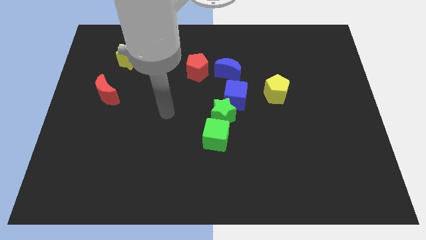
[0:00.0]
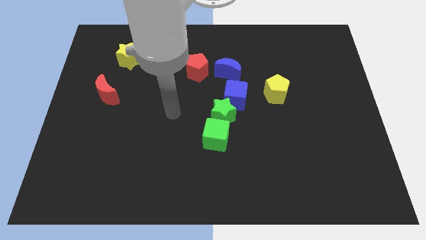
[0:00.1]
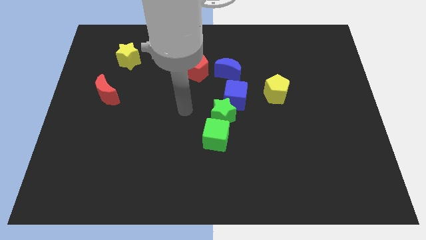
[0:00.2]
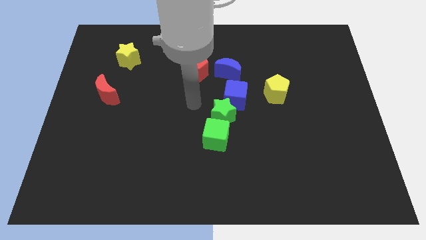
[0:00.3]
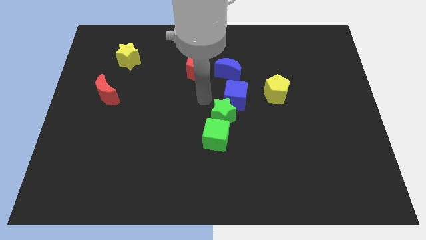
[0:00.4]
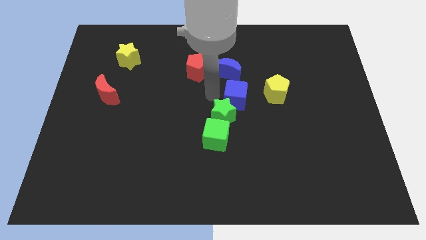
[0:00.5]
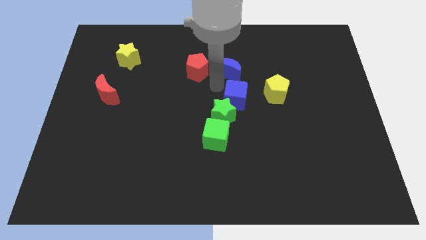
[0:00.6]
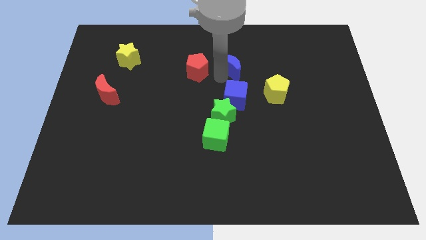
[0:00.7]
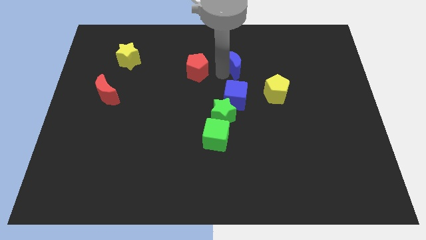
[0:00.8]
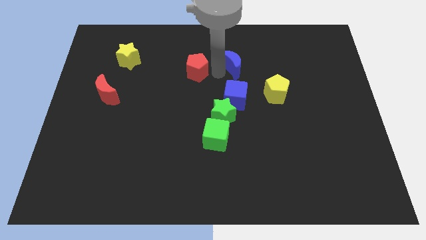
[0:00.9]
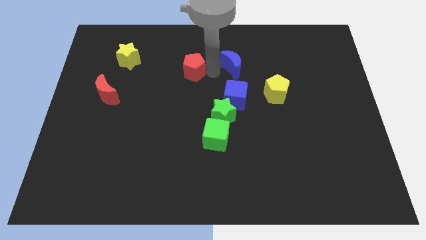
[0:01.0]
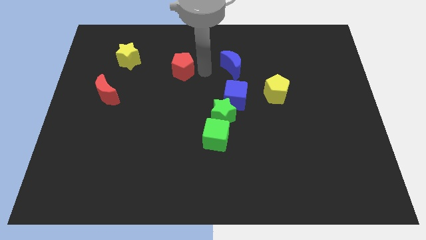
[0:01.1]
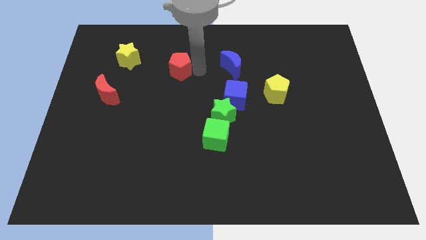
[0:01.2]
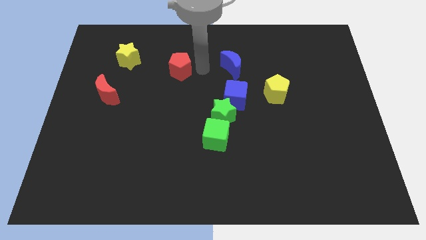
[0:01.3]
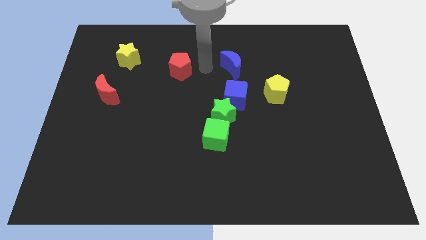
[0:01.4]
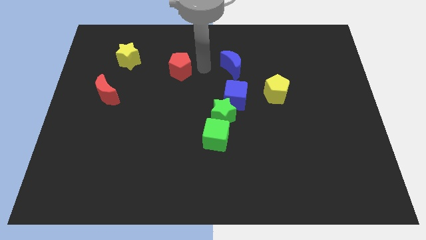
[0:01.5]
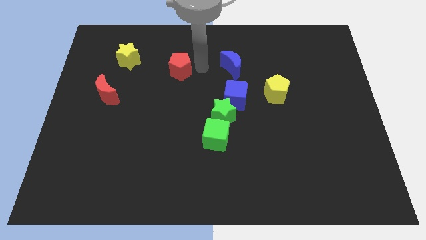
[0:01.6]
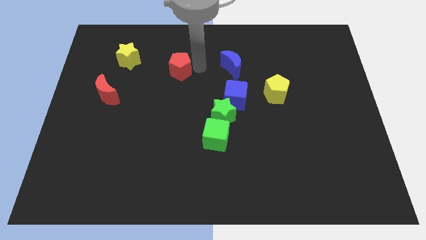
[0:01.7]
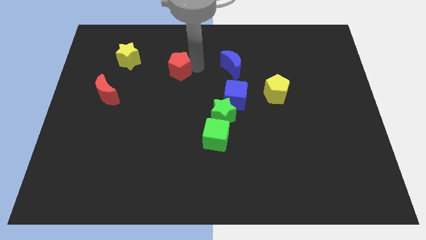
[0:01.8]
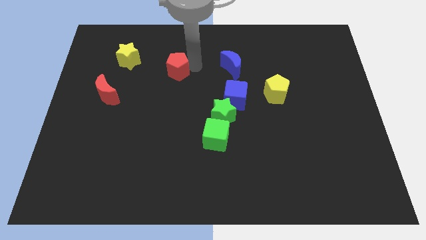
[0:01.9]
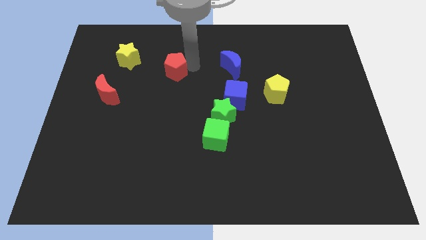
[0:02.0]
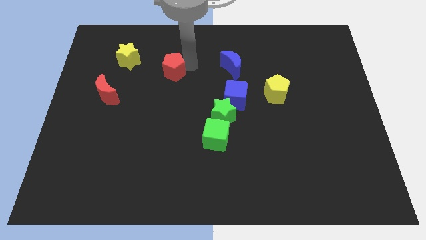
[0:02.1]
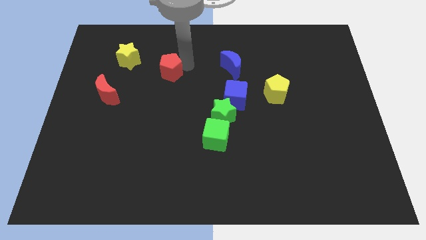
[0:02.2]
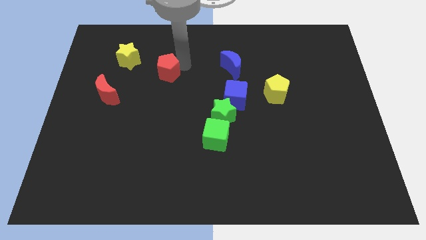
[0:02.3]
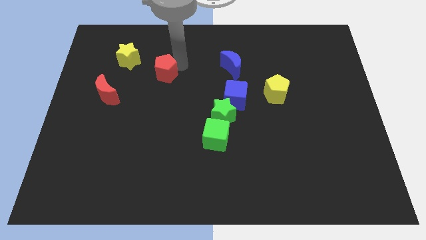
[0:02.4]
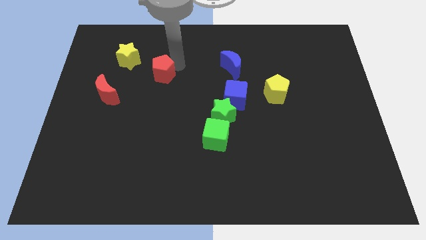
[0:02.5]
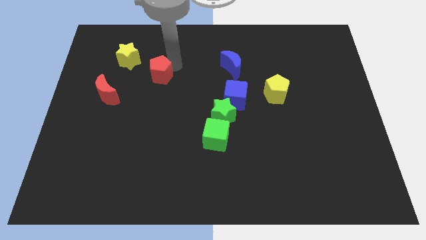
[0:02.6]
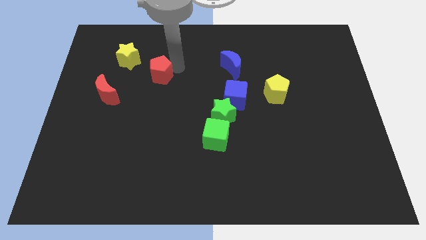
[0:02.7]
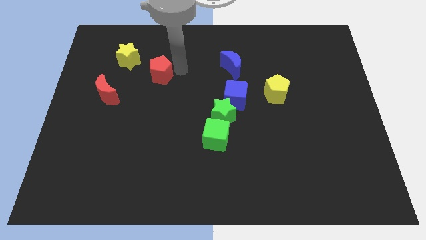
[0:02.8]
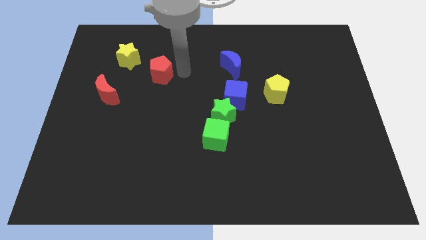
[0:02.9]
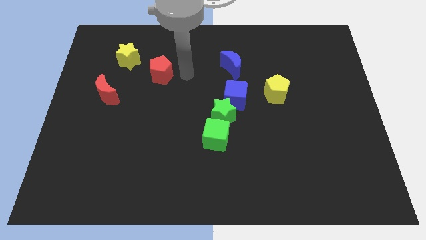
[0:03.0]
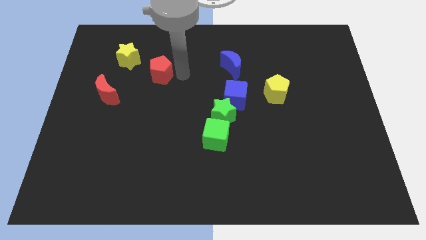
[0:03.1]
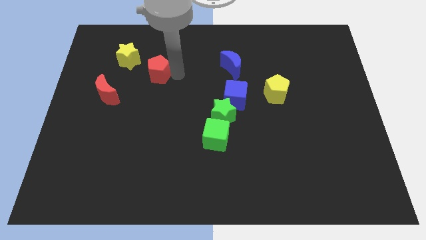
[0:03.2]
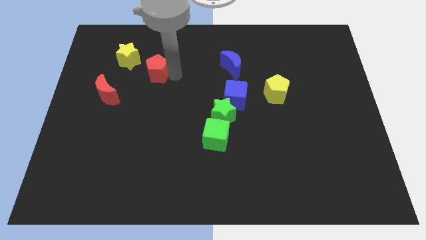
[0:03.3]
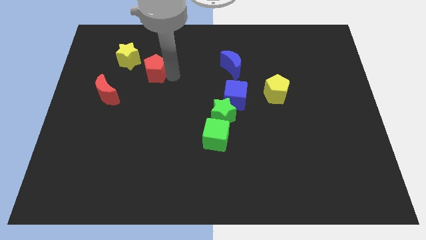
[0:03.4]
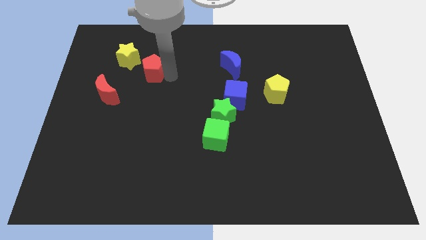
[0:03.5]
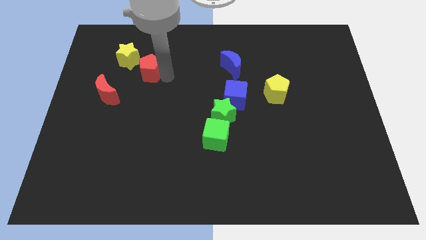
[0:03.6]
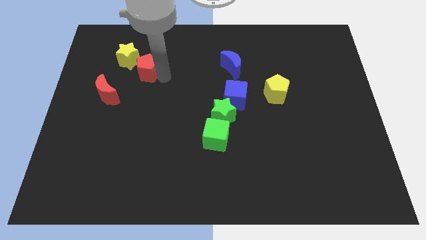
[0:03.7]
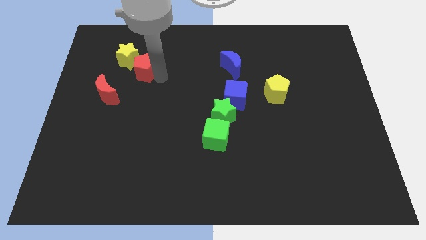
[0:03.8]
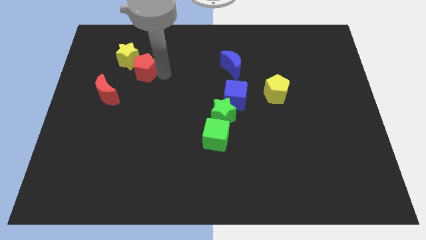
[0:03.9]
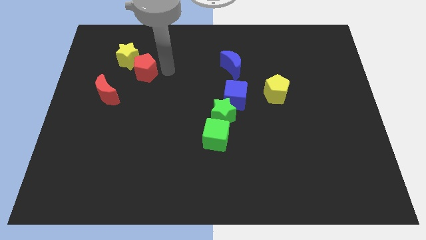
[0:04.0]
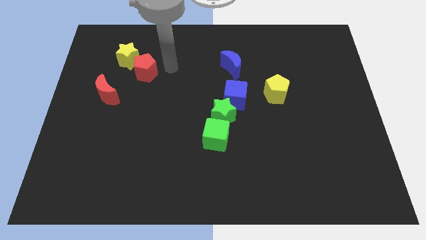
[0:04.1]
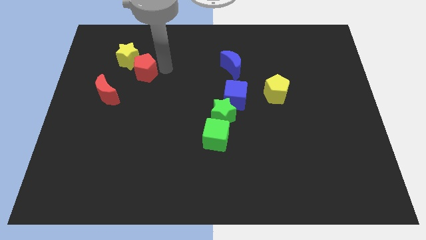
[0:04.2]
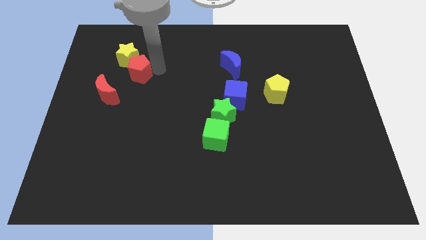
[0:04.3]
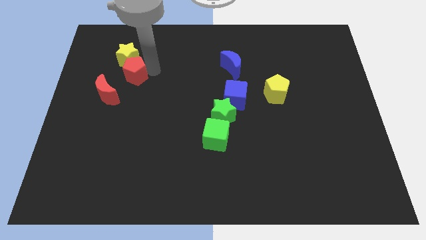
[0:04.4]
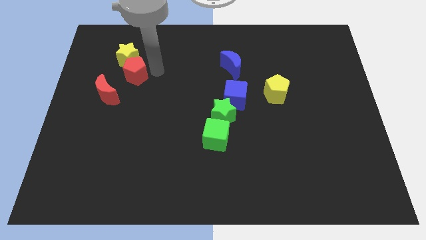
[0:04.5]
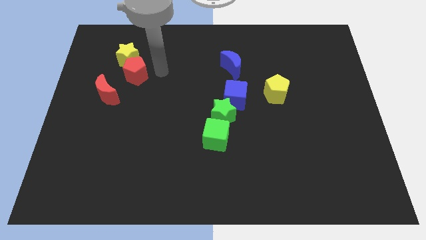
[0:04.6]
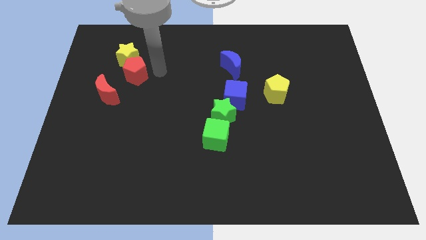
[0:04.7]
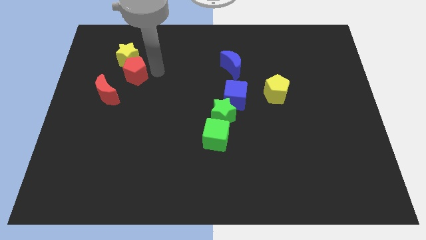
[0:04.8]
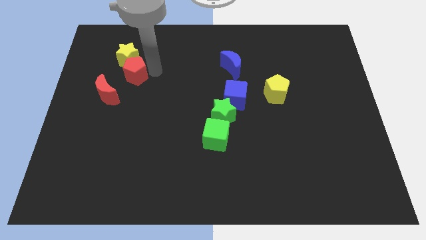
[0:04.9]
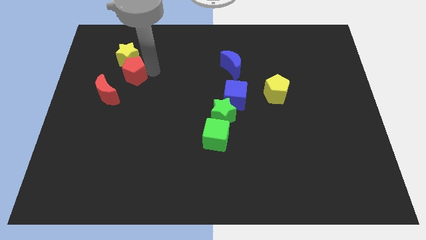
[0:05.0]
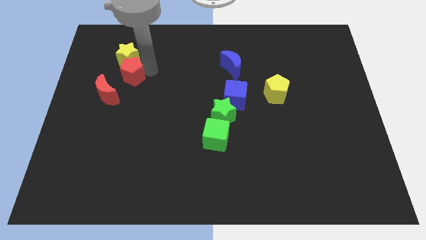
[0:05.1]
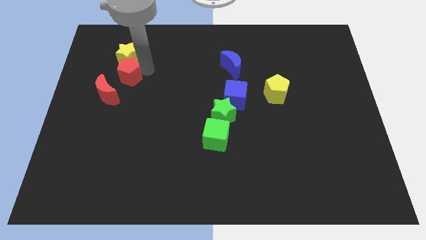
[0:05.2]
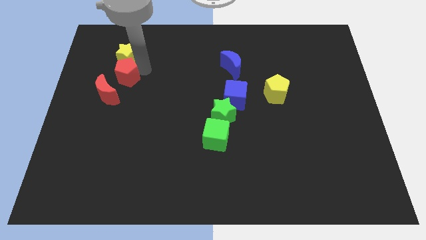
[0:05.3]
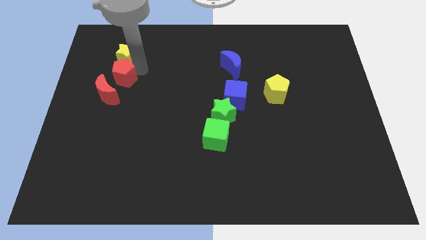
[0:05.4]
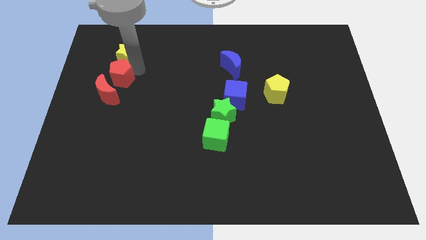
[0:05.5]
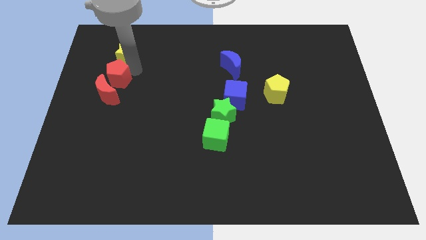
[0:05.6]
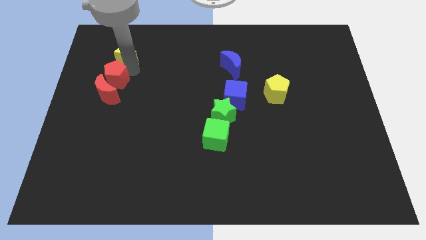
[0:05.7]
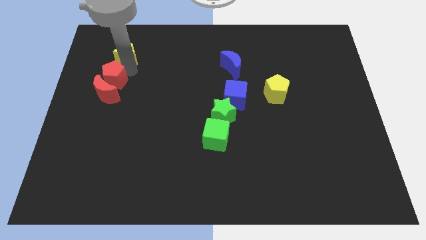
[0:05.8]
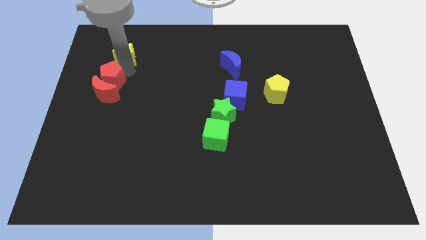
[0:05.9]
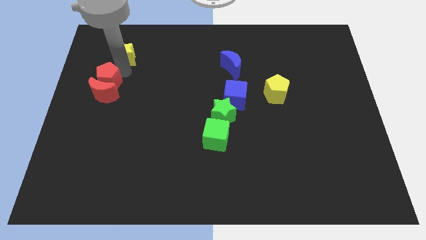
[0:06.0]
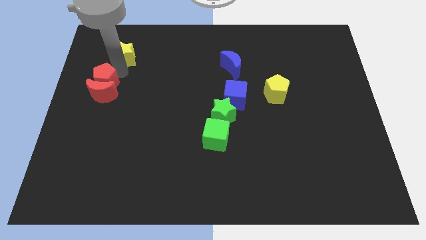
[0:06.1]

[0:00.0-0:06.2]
slide the red pentagon to the left side
